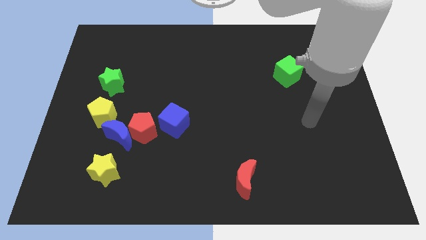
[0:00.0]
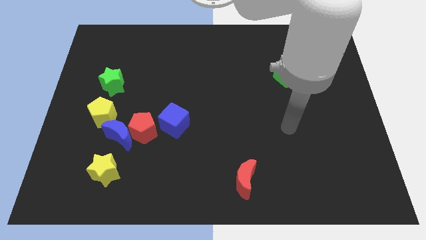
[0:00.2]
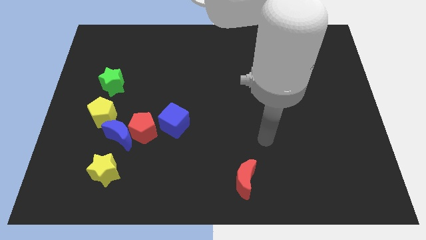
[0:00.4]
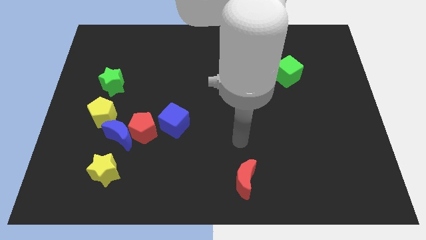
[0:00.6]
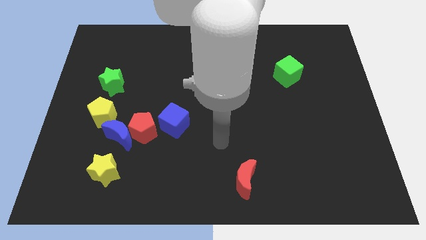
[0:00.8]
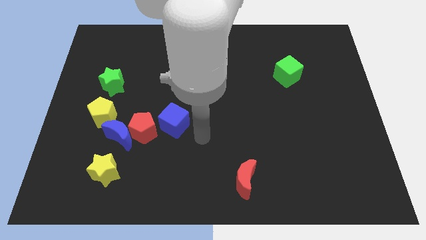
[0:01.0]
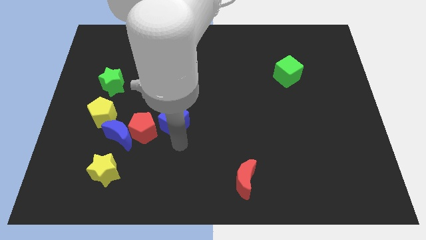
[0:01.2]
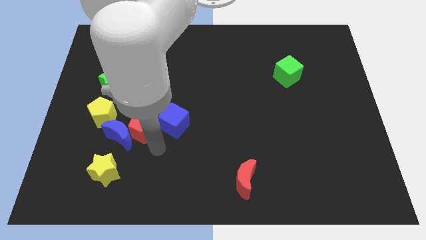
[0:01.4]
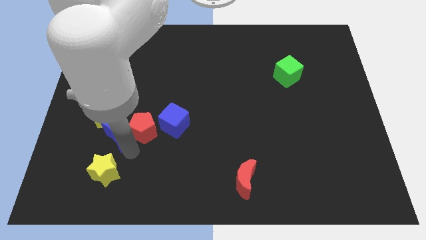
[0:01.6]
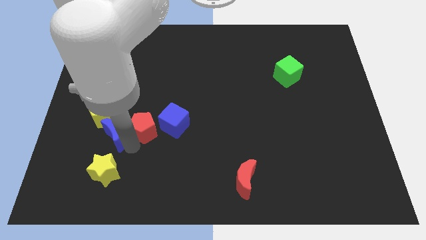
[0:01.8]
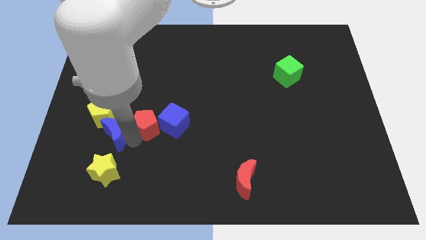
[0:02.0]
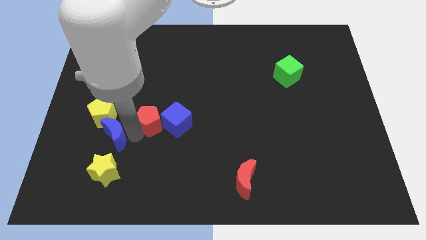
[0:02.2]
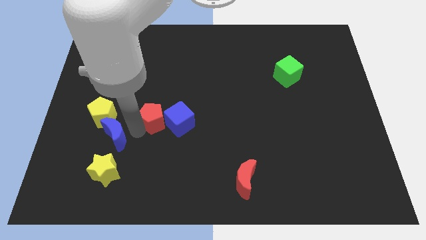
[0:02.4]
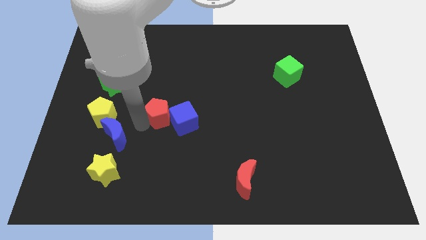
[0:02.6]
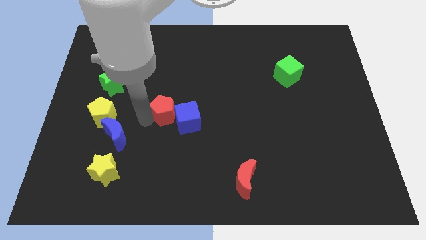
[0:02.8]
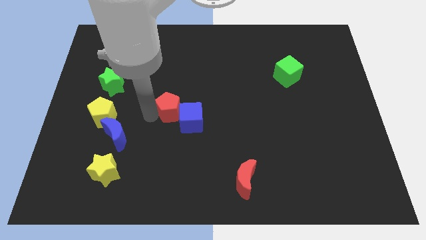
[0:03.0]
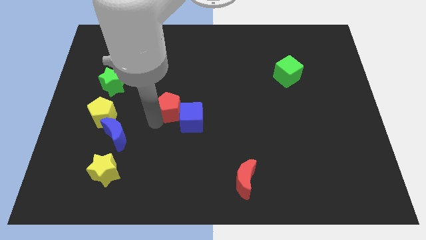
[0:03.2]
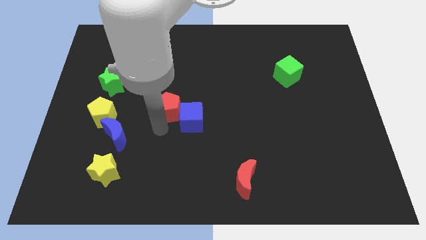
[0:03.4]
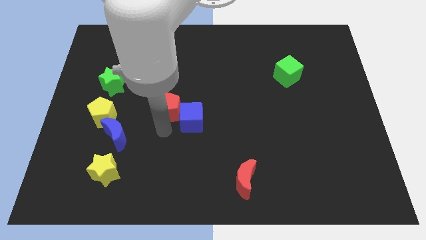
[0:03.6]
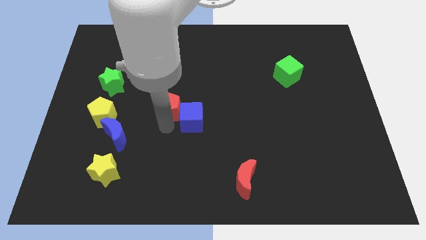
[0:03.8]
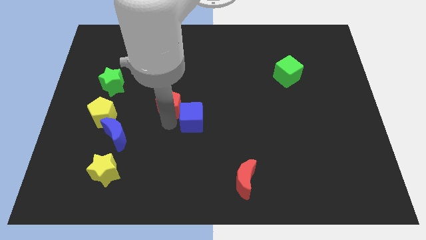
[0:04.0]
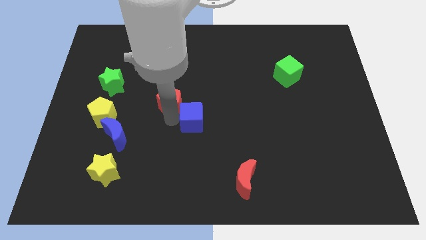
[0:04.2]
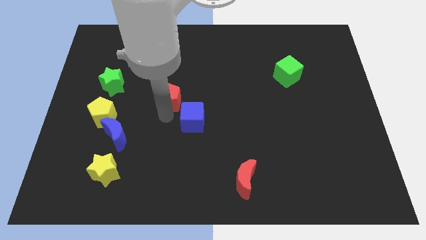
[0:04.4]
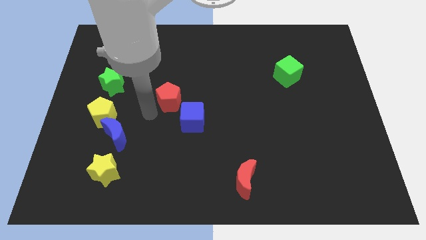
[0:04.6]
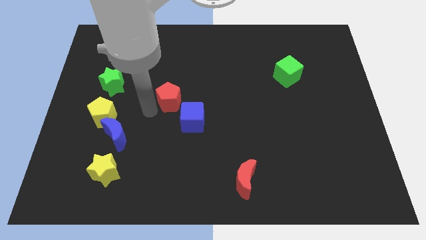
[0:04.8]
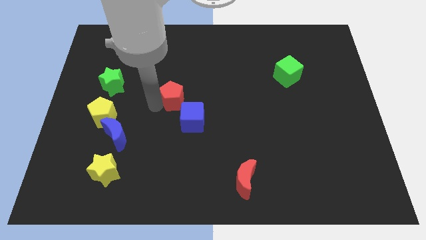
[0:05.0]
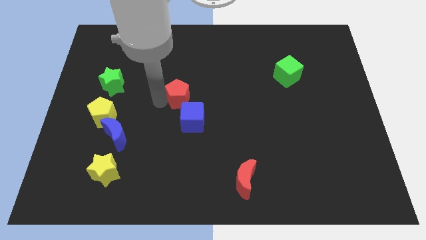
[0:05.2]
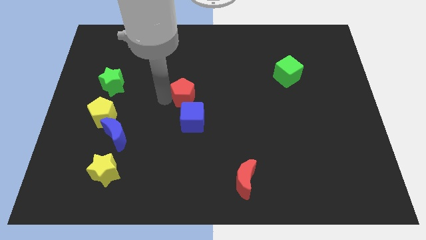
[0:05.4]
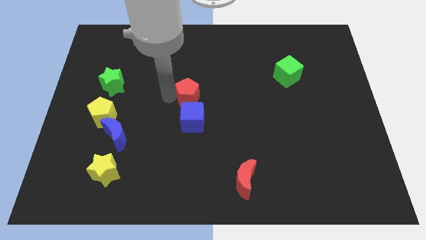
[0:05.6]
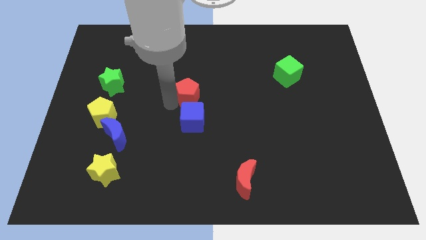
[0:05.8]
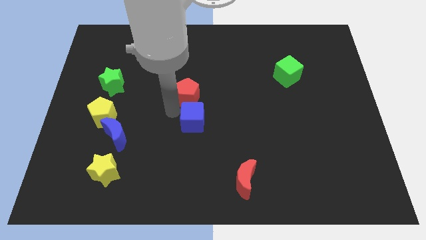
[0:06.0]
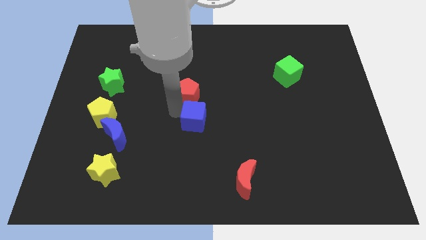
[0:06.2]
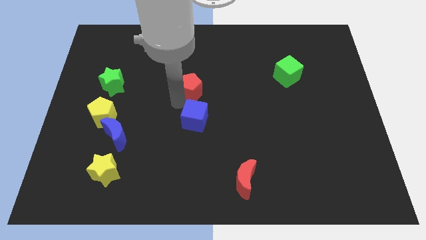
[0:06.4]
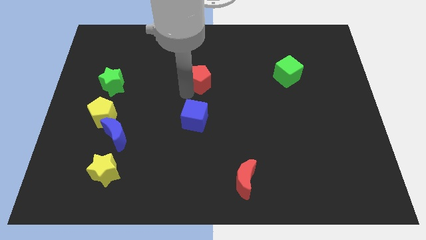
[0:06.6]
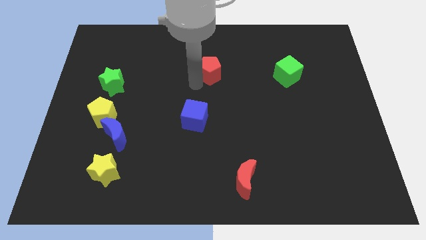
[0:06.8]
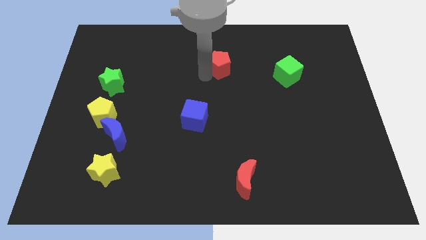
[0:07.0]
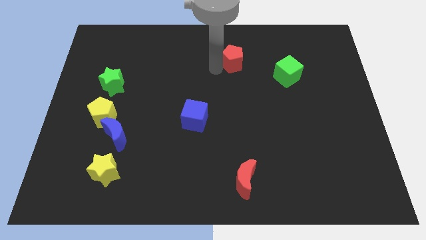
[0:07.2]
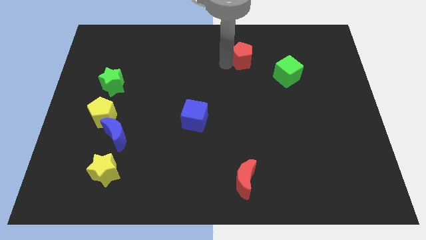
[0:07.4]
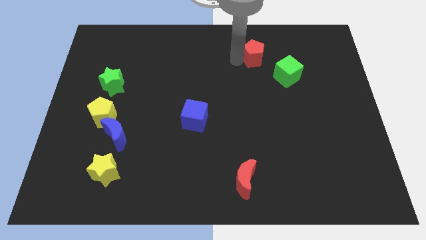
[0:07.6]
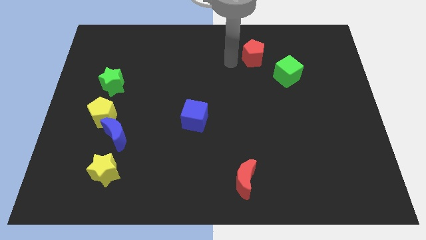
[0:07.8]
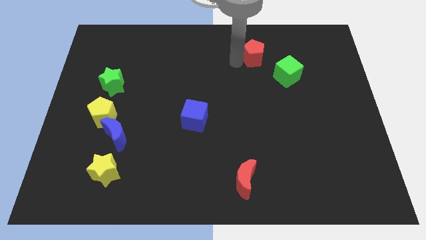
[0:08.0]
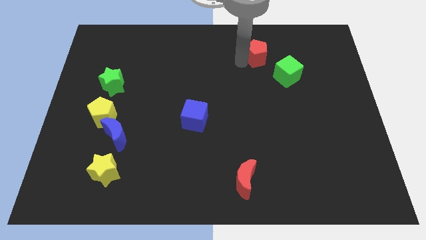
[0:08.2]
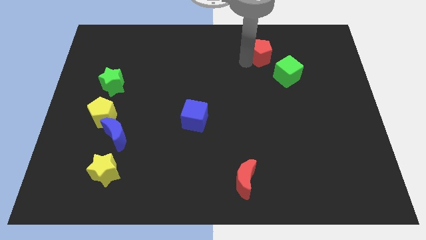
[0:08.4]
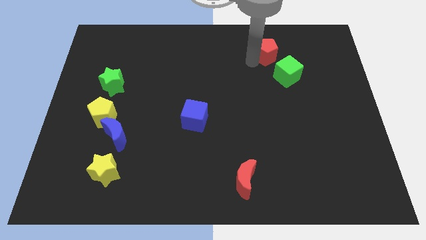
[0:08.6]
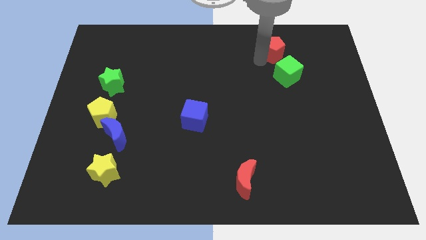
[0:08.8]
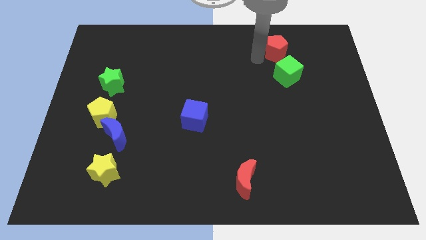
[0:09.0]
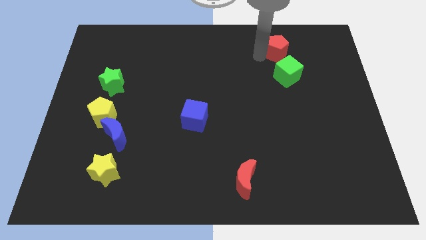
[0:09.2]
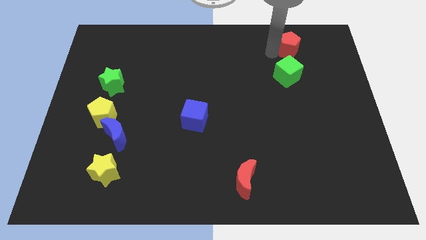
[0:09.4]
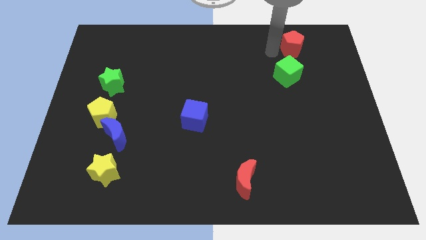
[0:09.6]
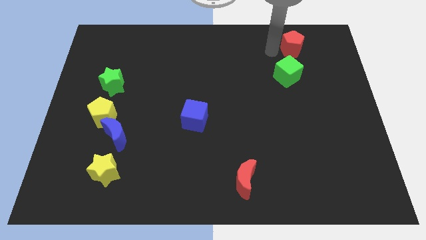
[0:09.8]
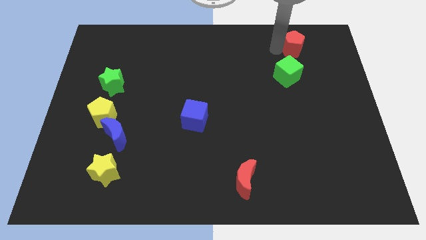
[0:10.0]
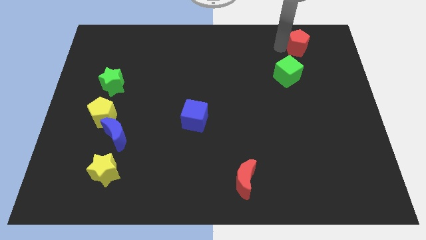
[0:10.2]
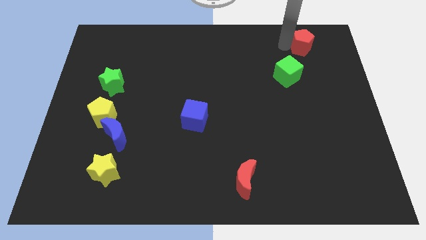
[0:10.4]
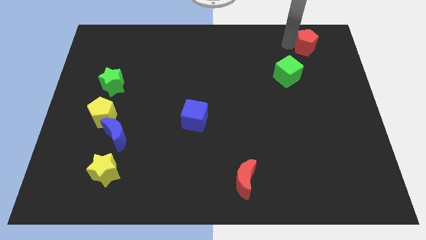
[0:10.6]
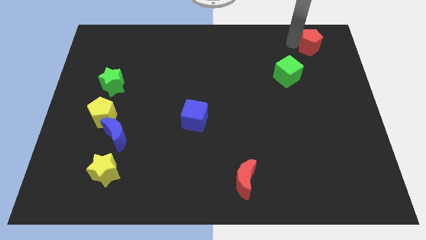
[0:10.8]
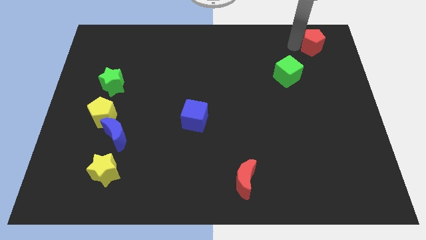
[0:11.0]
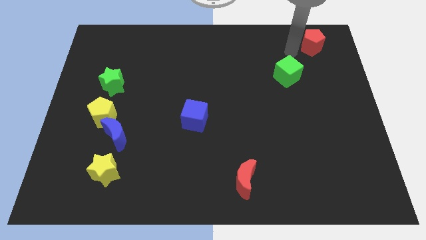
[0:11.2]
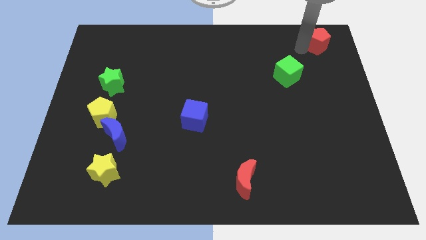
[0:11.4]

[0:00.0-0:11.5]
put the red pentagon to the top right corner

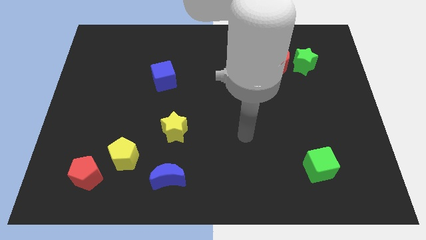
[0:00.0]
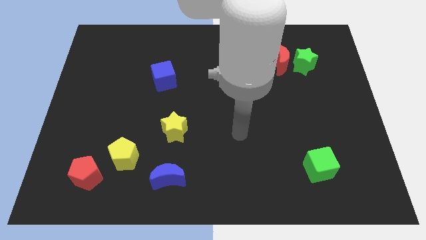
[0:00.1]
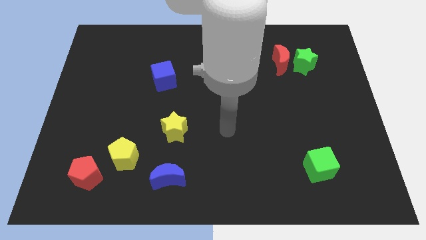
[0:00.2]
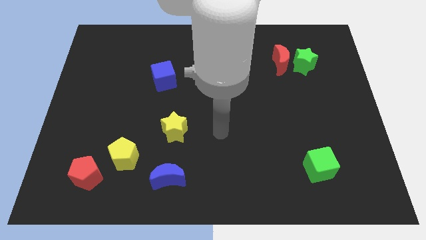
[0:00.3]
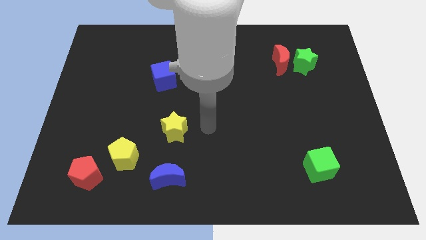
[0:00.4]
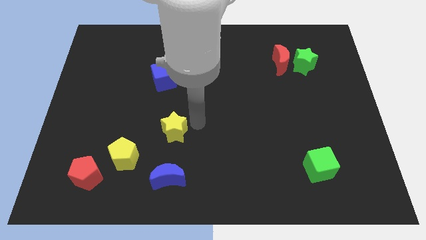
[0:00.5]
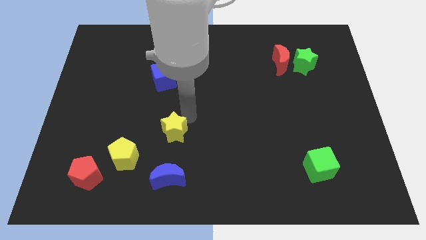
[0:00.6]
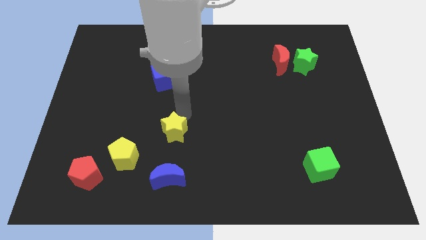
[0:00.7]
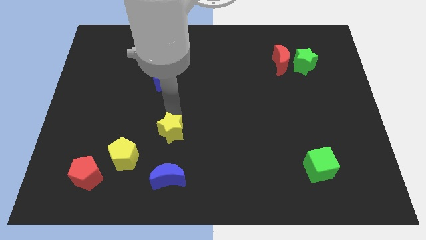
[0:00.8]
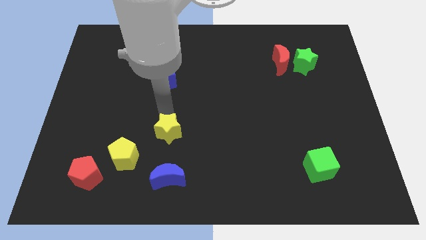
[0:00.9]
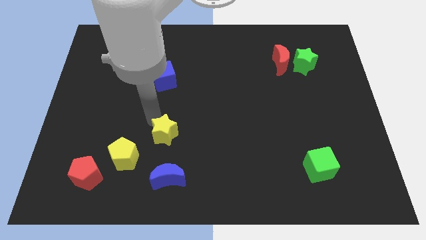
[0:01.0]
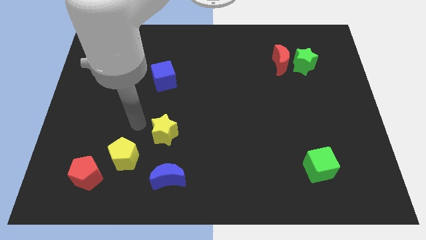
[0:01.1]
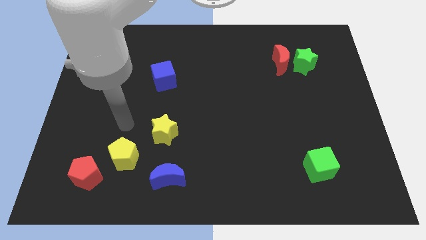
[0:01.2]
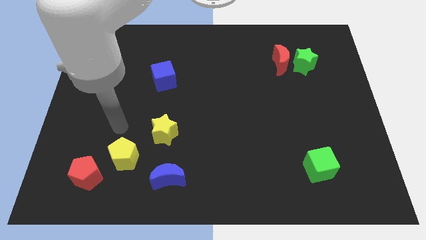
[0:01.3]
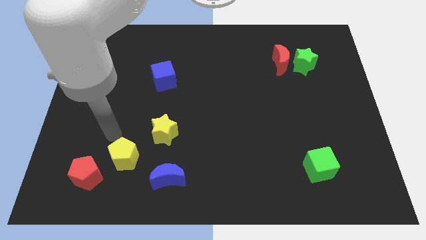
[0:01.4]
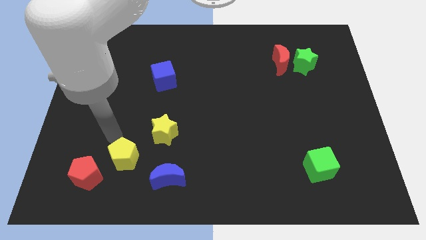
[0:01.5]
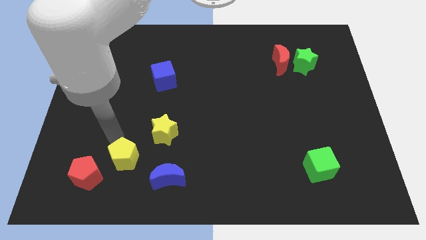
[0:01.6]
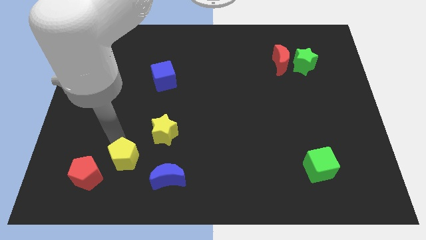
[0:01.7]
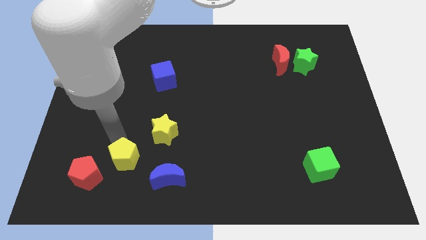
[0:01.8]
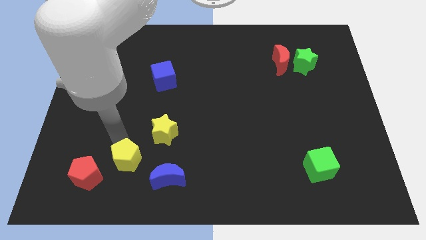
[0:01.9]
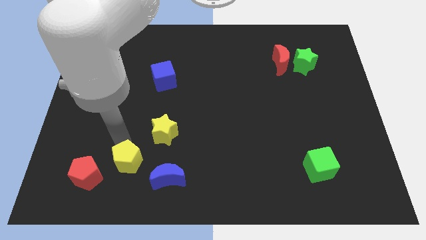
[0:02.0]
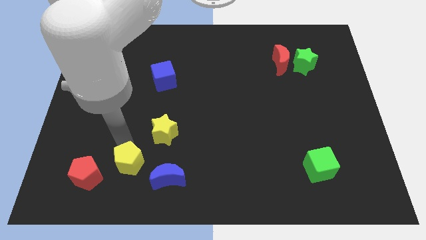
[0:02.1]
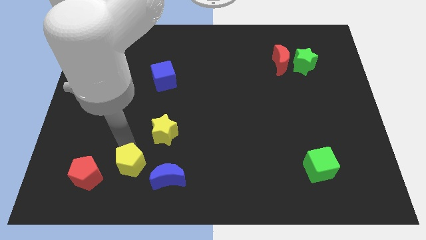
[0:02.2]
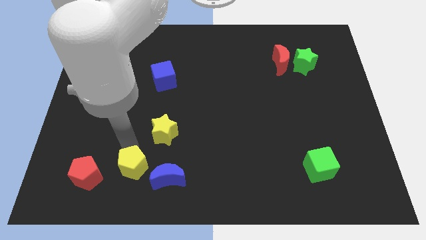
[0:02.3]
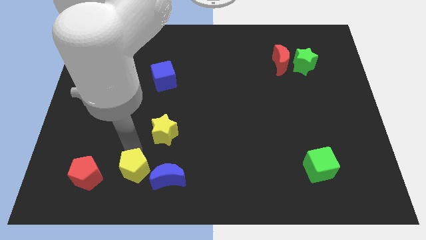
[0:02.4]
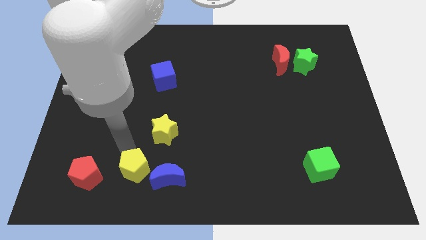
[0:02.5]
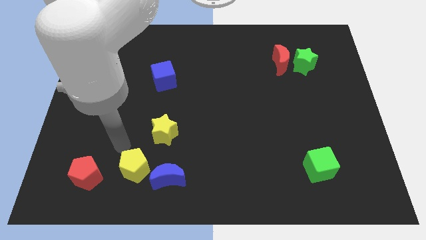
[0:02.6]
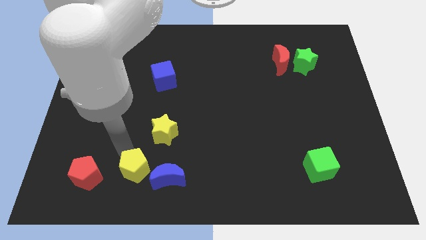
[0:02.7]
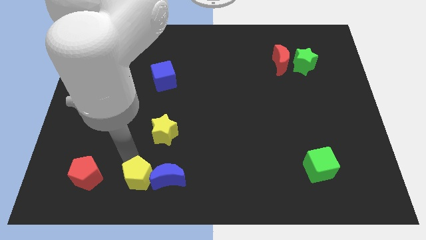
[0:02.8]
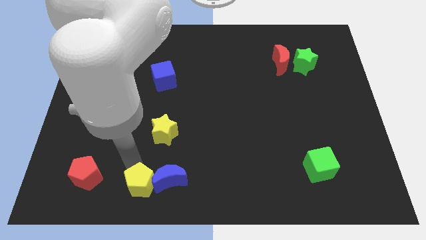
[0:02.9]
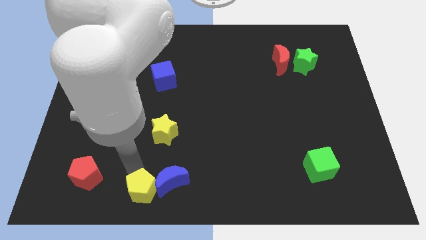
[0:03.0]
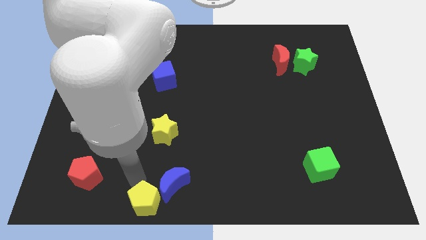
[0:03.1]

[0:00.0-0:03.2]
move the yellow pentagon to the bottom
